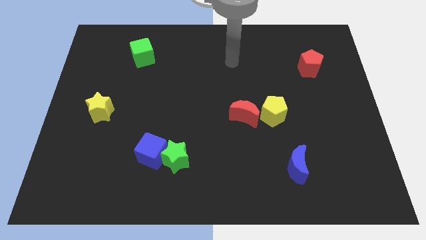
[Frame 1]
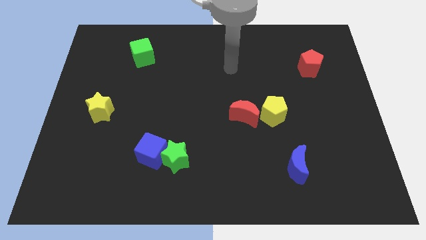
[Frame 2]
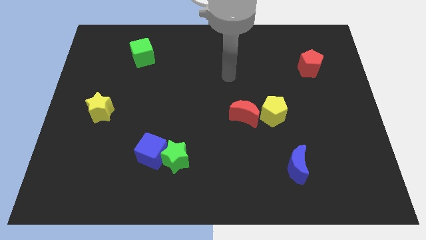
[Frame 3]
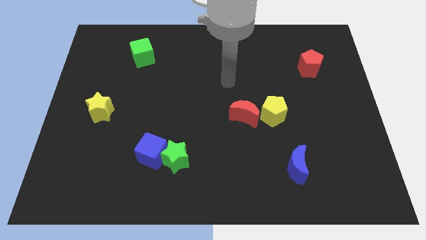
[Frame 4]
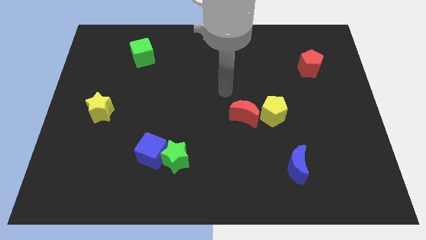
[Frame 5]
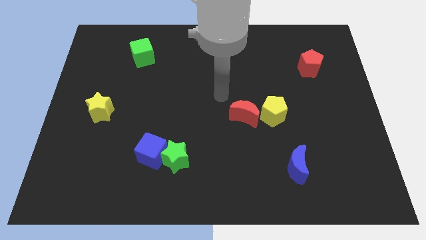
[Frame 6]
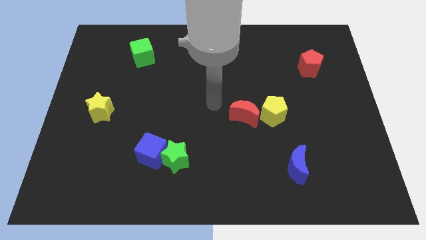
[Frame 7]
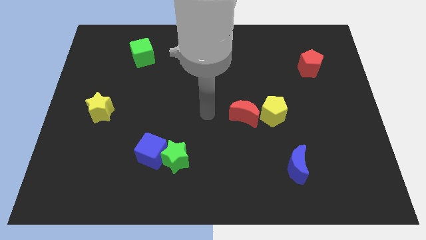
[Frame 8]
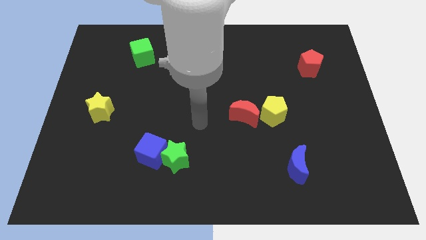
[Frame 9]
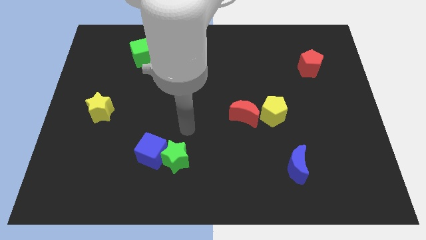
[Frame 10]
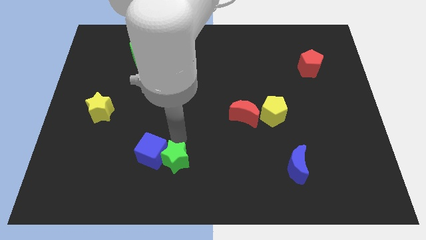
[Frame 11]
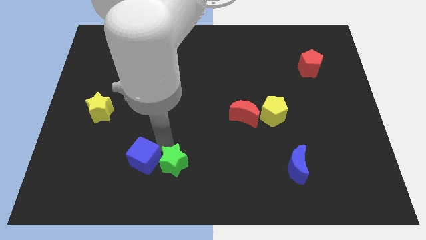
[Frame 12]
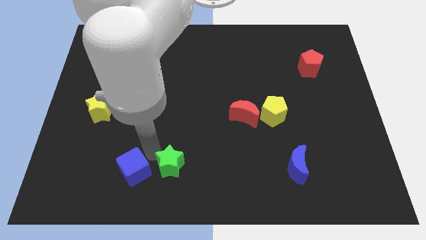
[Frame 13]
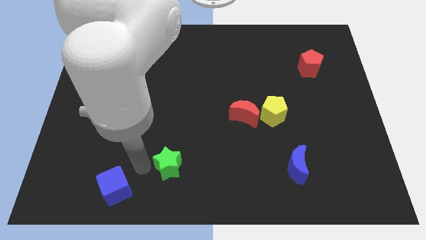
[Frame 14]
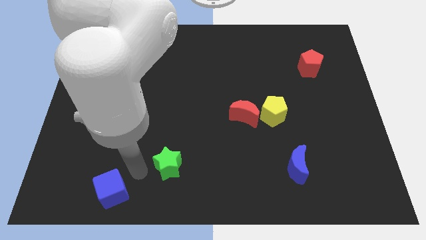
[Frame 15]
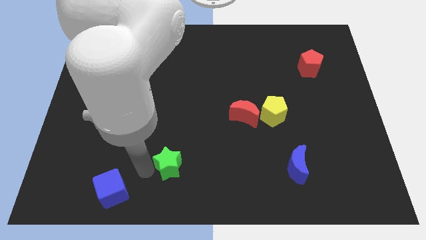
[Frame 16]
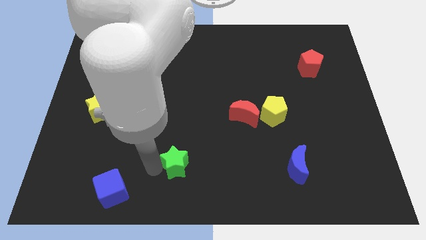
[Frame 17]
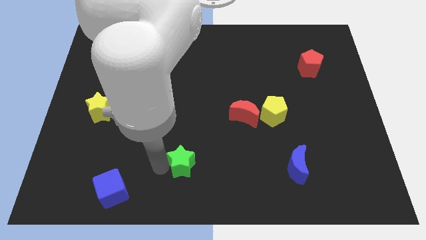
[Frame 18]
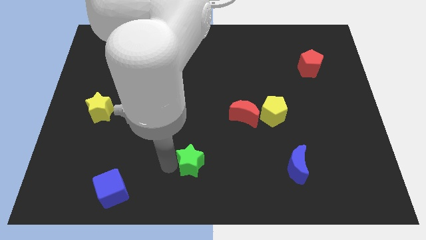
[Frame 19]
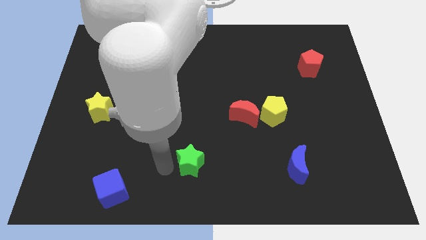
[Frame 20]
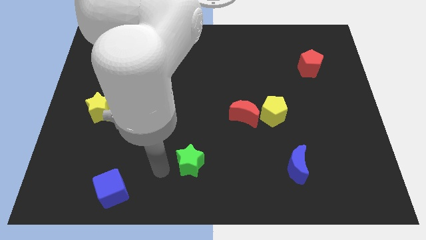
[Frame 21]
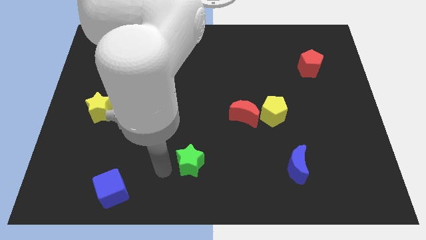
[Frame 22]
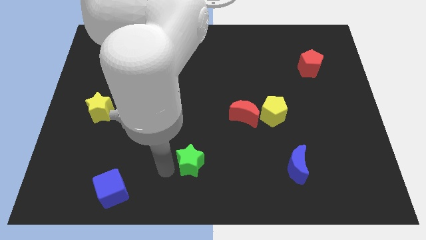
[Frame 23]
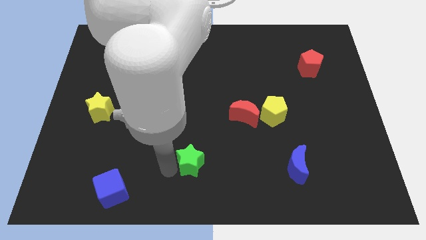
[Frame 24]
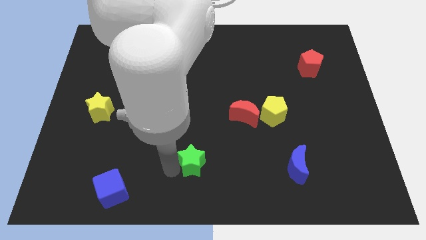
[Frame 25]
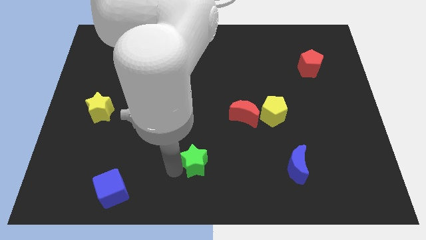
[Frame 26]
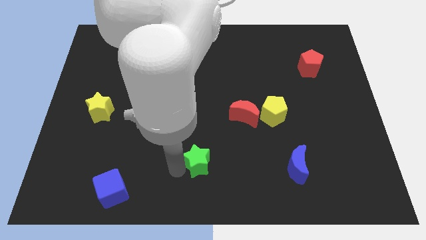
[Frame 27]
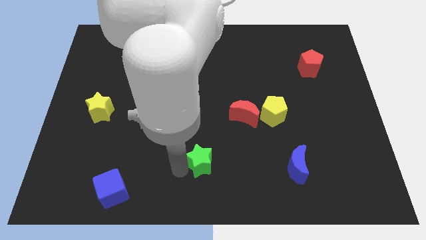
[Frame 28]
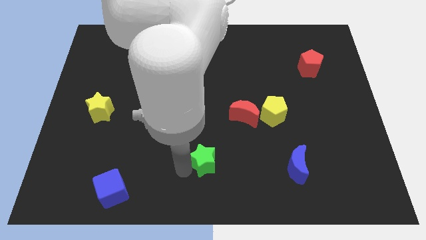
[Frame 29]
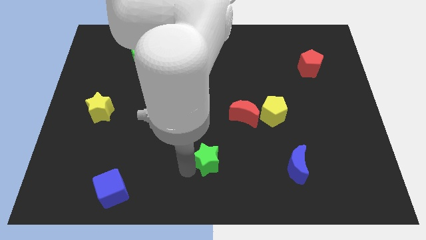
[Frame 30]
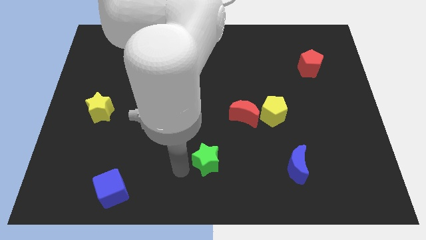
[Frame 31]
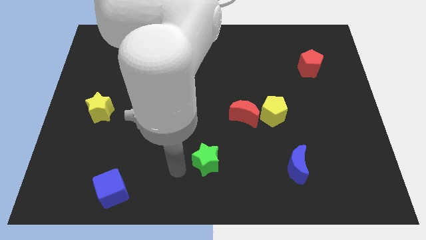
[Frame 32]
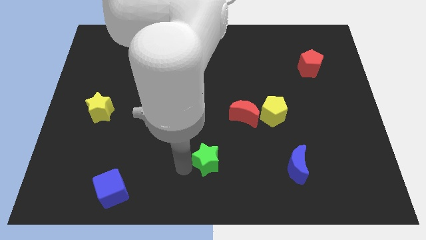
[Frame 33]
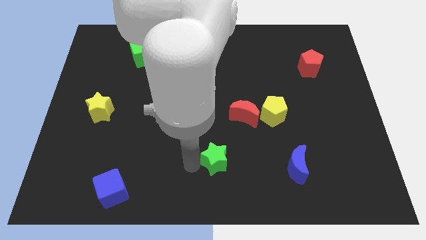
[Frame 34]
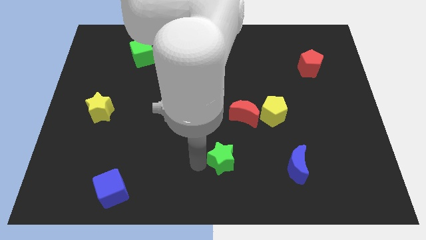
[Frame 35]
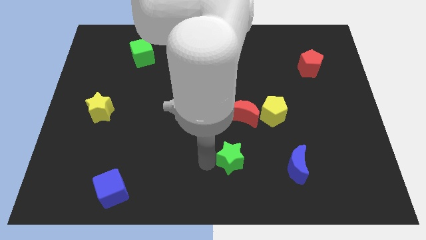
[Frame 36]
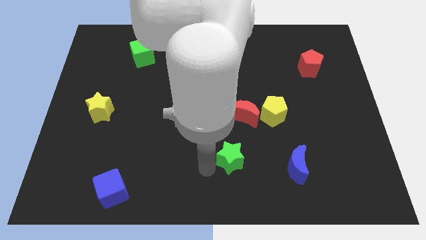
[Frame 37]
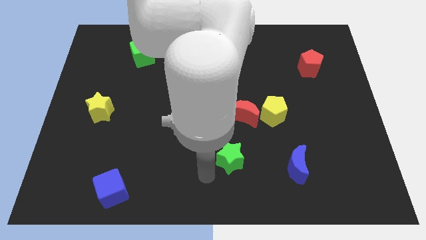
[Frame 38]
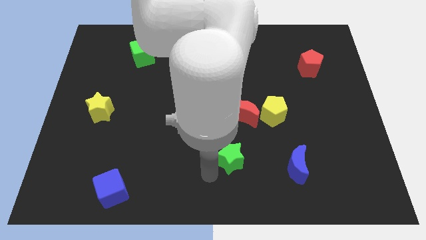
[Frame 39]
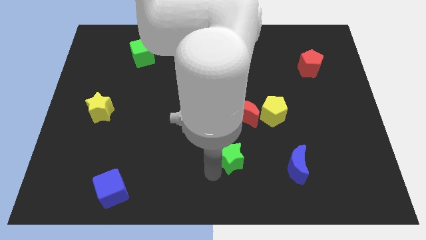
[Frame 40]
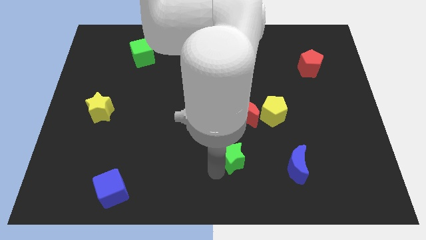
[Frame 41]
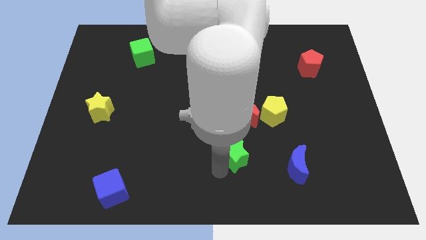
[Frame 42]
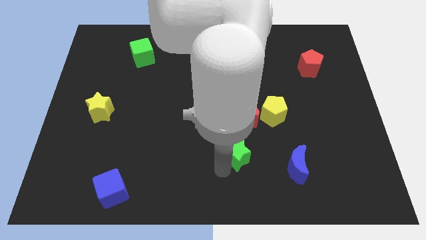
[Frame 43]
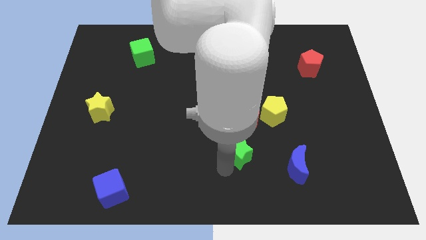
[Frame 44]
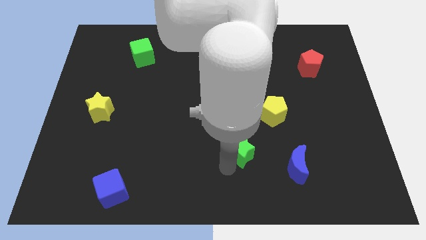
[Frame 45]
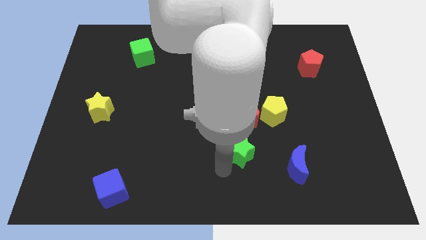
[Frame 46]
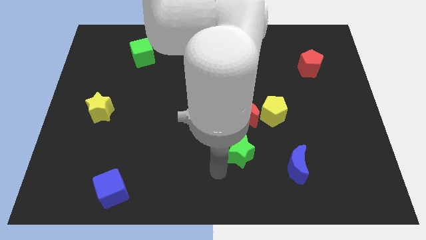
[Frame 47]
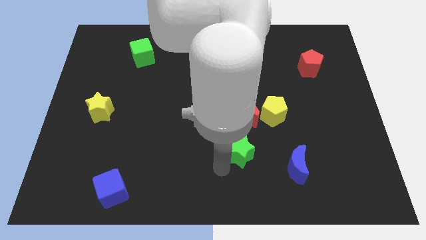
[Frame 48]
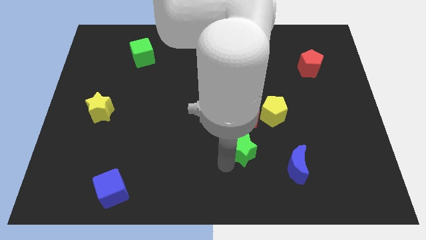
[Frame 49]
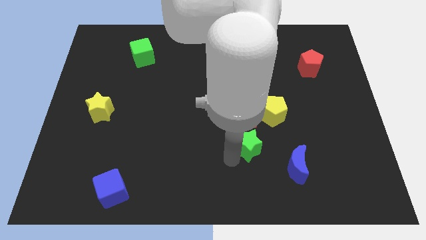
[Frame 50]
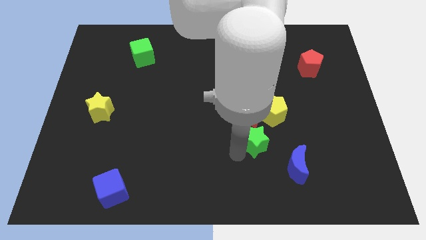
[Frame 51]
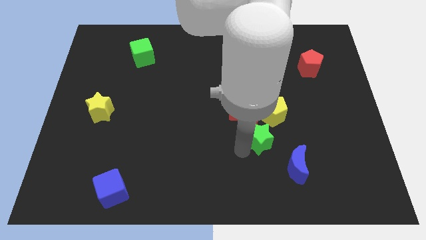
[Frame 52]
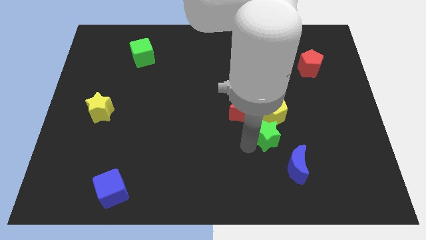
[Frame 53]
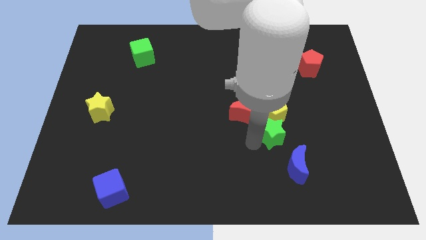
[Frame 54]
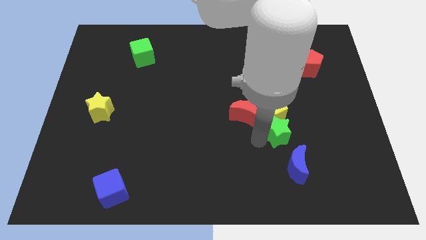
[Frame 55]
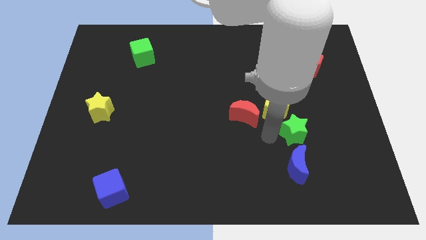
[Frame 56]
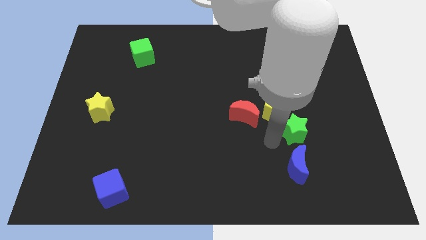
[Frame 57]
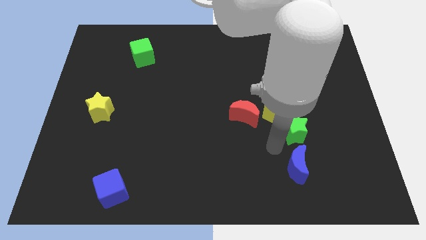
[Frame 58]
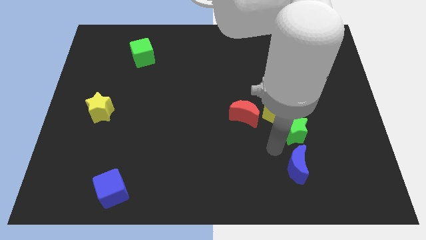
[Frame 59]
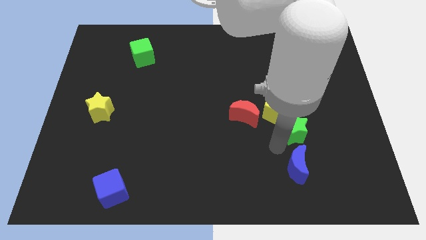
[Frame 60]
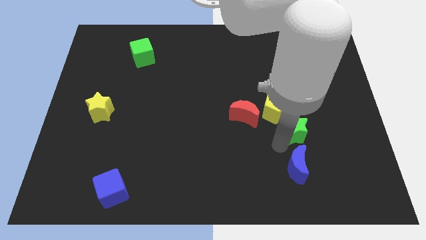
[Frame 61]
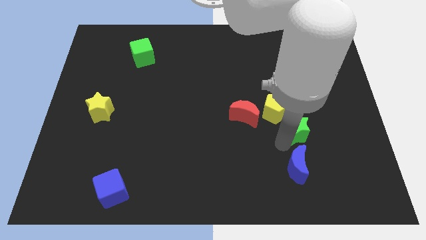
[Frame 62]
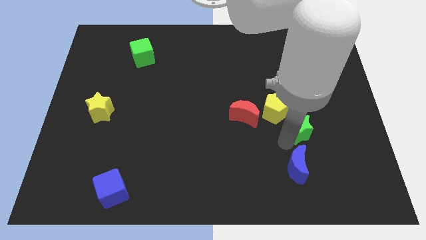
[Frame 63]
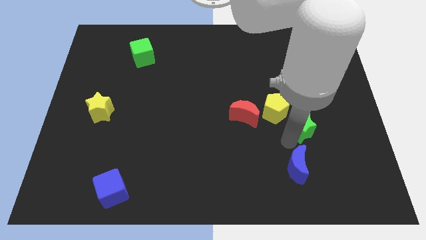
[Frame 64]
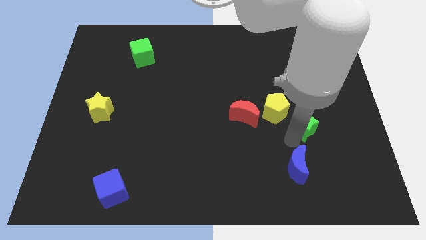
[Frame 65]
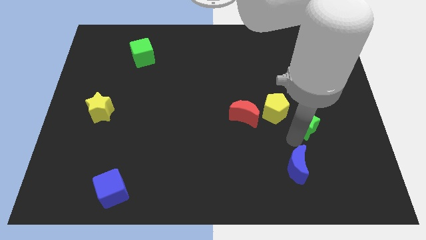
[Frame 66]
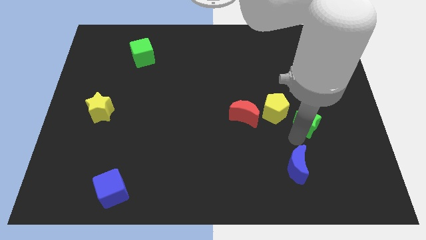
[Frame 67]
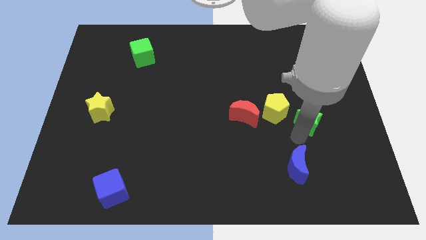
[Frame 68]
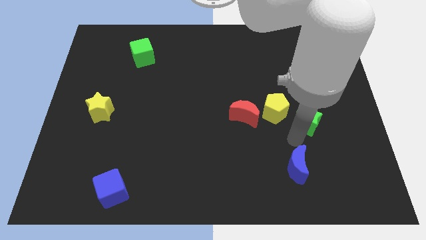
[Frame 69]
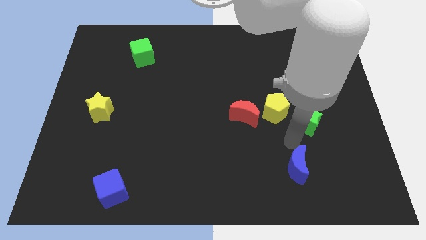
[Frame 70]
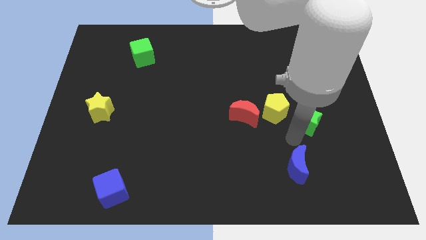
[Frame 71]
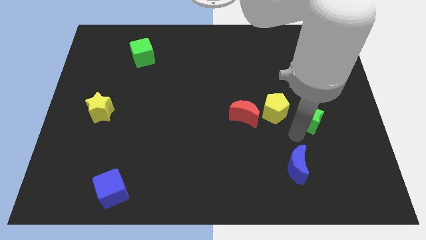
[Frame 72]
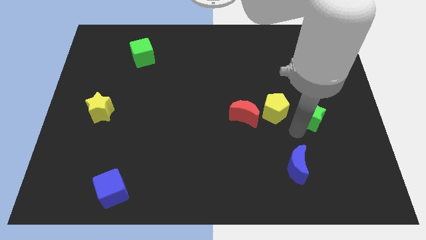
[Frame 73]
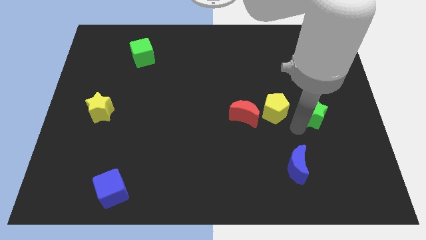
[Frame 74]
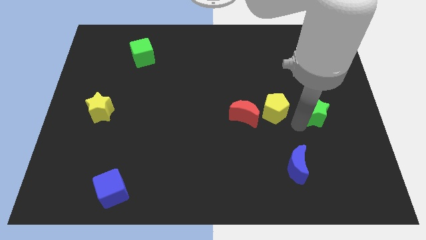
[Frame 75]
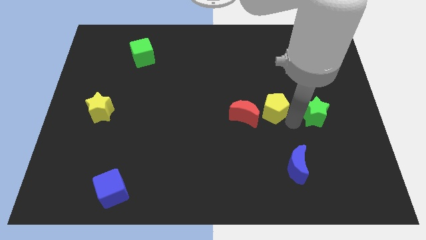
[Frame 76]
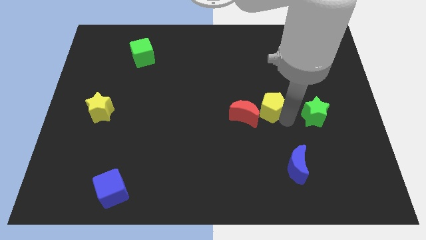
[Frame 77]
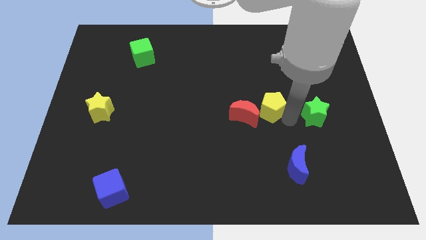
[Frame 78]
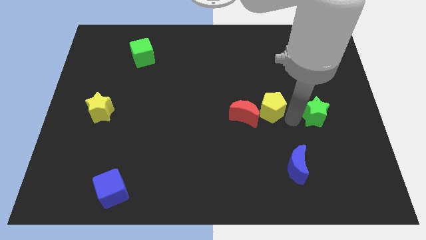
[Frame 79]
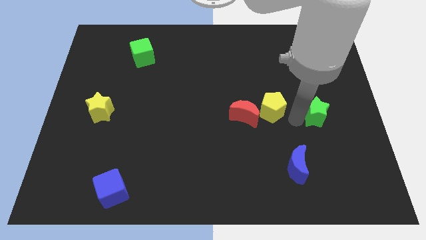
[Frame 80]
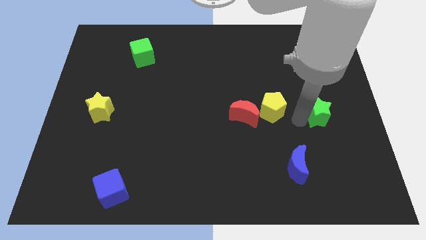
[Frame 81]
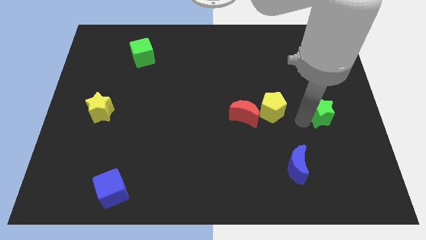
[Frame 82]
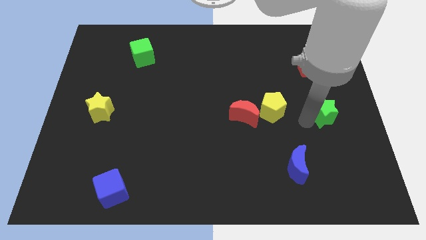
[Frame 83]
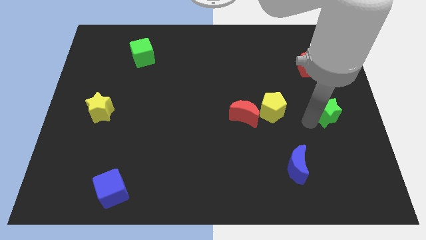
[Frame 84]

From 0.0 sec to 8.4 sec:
move the green star to the center right
